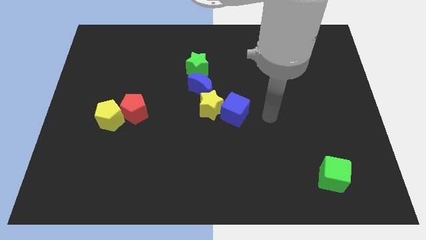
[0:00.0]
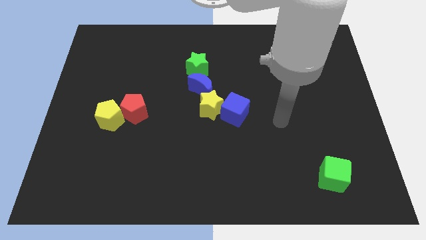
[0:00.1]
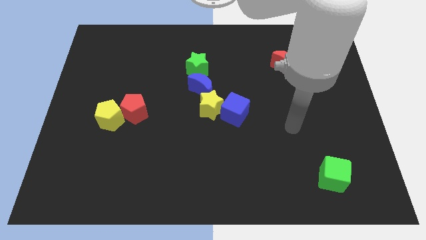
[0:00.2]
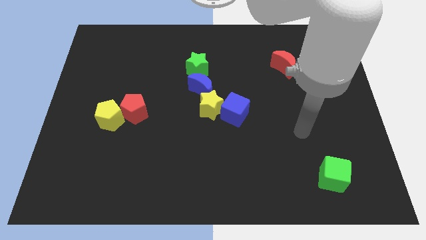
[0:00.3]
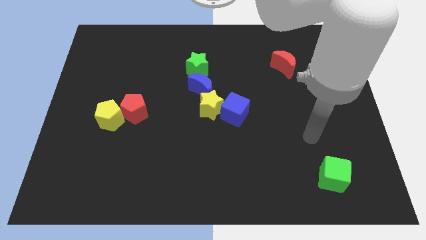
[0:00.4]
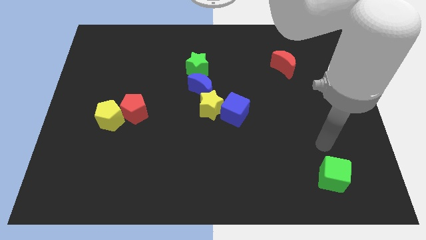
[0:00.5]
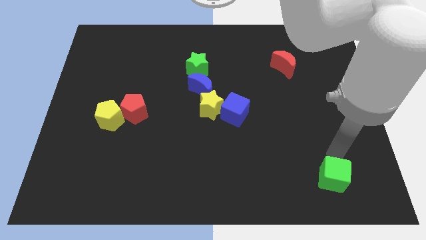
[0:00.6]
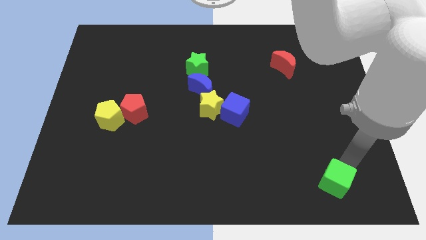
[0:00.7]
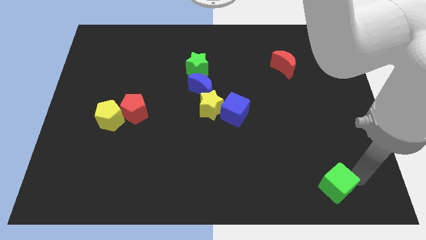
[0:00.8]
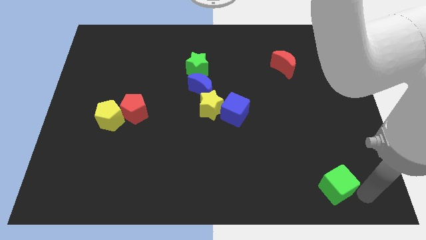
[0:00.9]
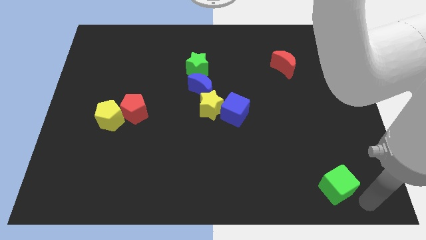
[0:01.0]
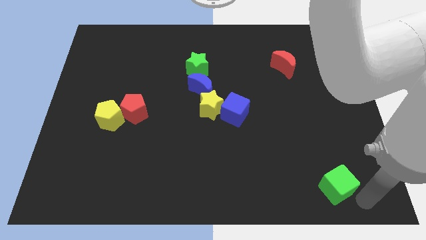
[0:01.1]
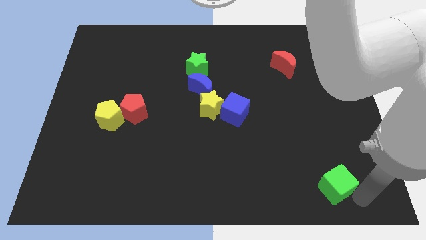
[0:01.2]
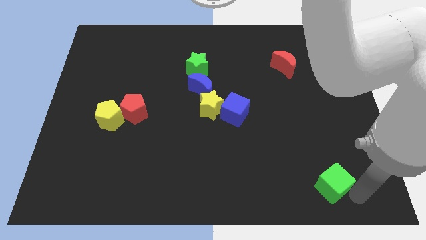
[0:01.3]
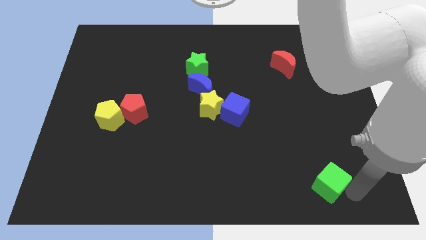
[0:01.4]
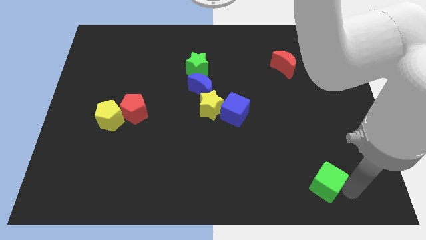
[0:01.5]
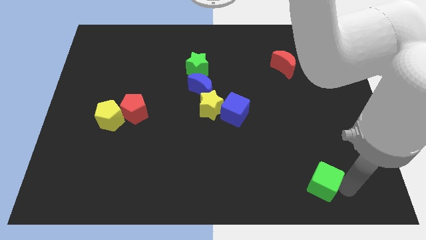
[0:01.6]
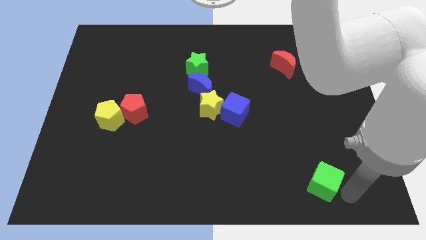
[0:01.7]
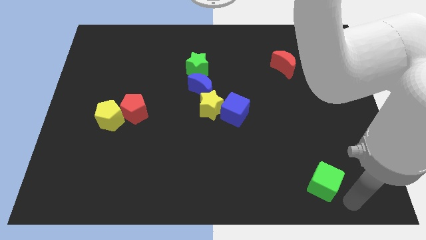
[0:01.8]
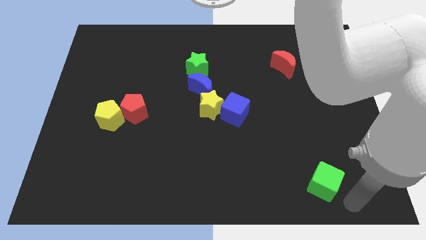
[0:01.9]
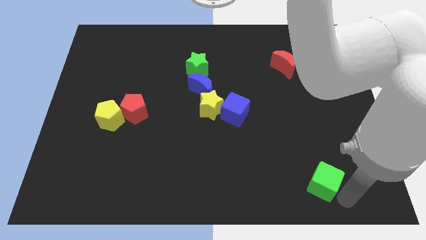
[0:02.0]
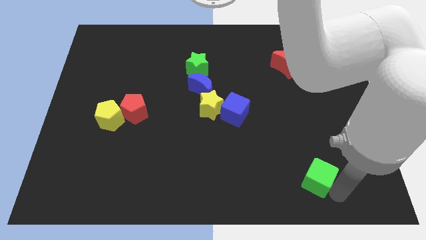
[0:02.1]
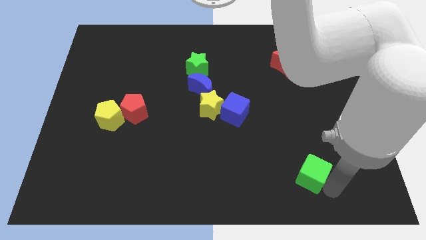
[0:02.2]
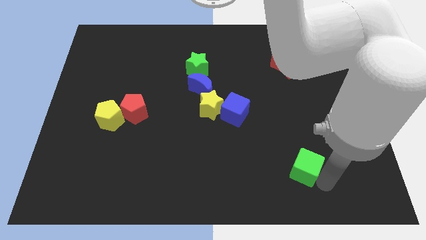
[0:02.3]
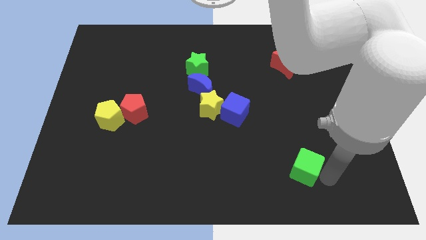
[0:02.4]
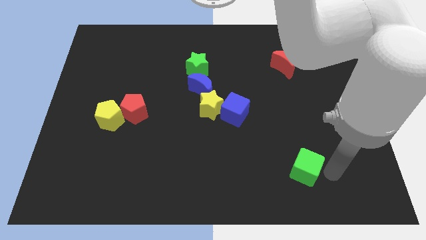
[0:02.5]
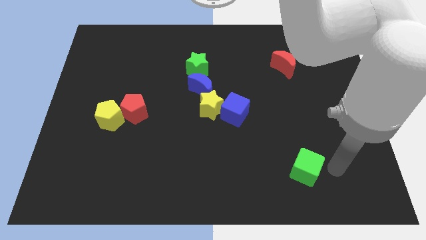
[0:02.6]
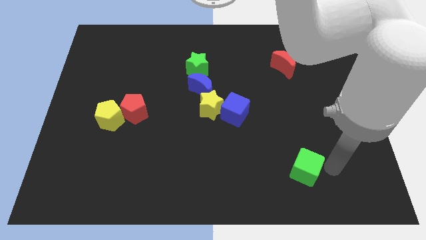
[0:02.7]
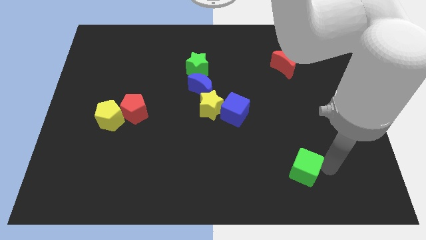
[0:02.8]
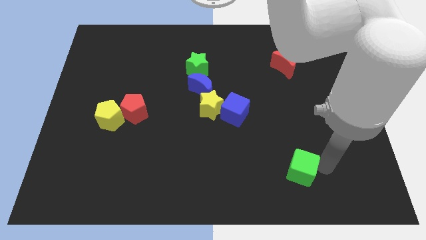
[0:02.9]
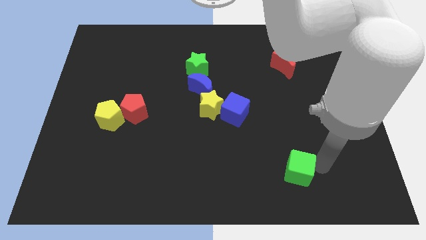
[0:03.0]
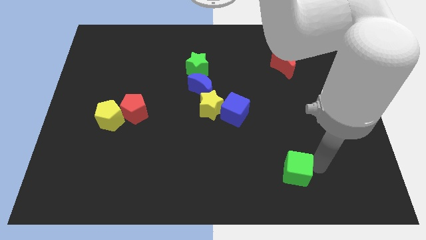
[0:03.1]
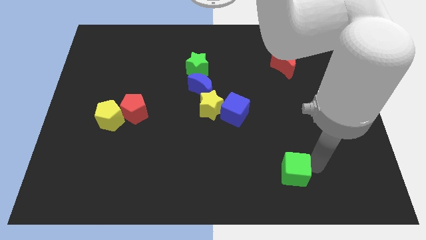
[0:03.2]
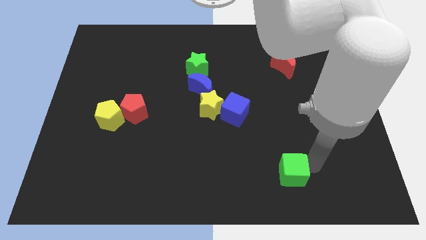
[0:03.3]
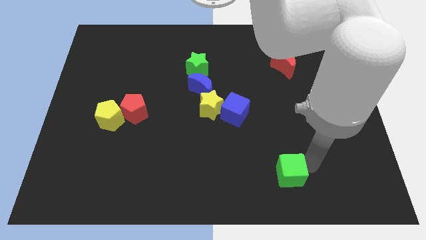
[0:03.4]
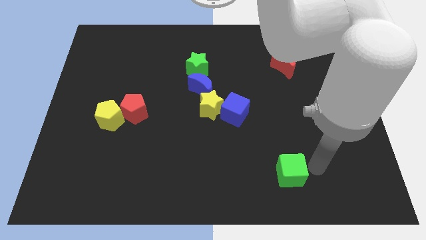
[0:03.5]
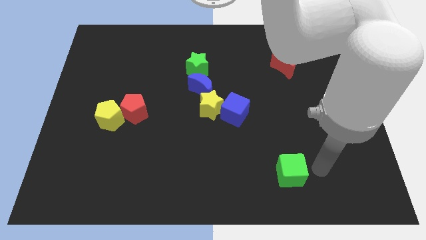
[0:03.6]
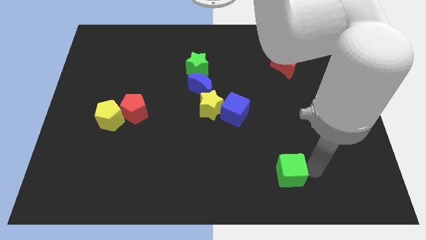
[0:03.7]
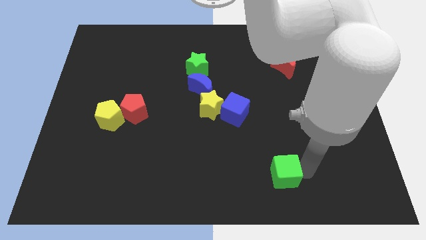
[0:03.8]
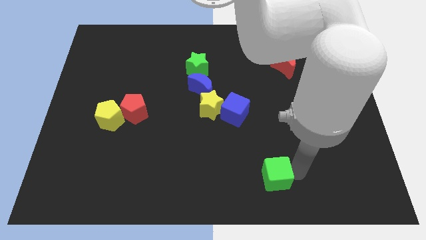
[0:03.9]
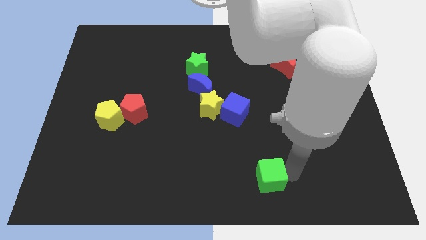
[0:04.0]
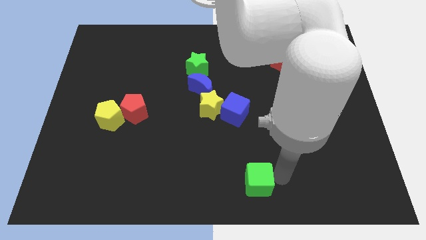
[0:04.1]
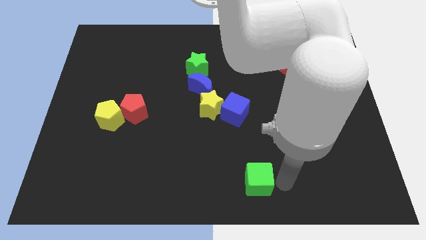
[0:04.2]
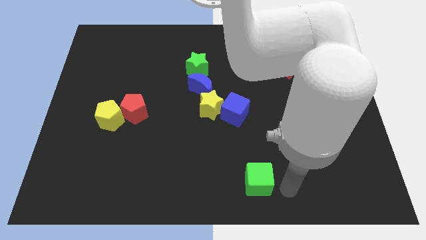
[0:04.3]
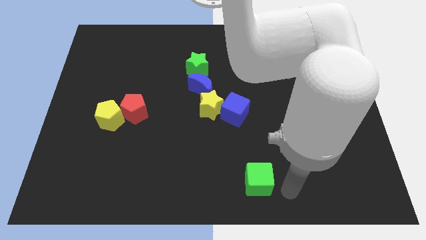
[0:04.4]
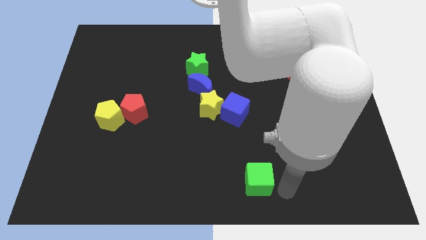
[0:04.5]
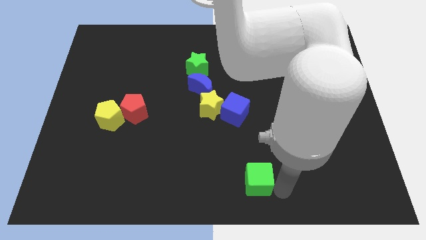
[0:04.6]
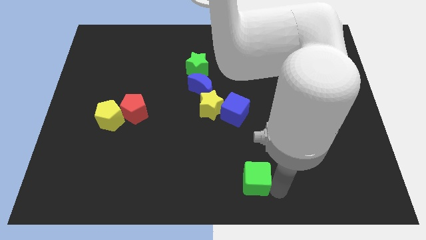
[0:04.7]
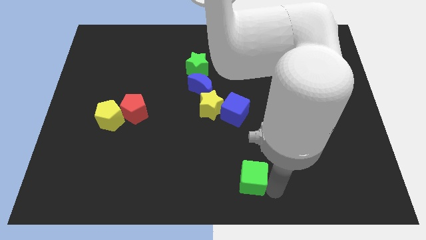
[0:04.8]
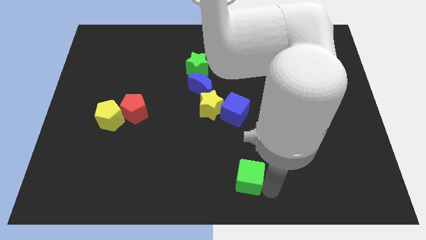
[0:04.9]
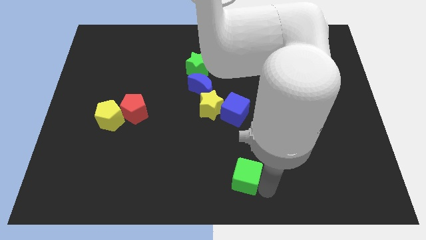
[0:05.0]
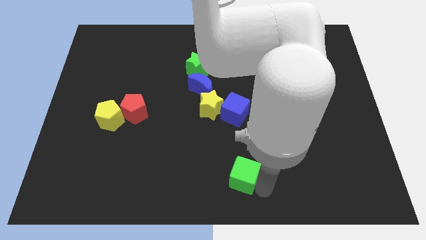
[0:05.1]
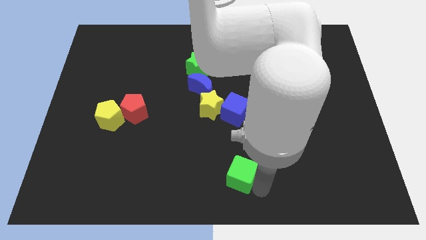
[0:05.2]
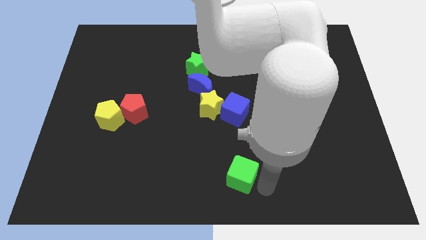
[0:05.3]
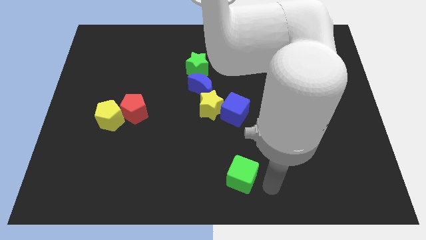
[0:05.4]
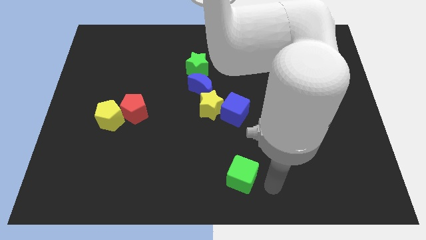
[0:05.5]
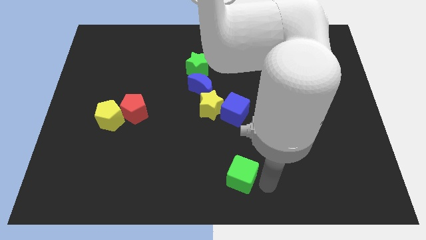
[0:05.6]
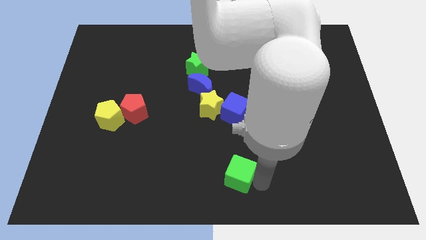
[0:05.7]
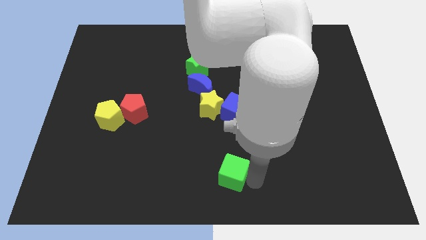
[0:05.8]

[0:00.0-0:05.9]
move the green cube left

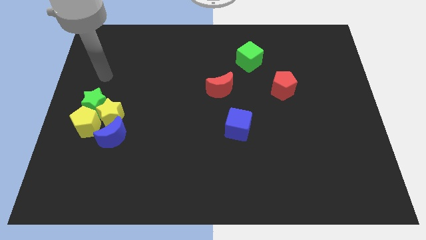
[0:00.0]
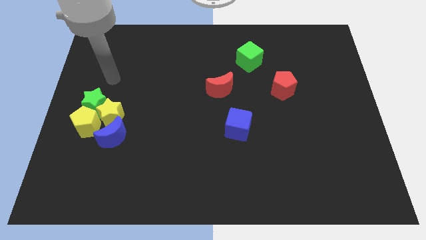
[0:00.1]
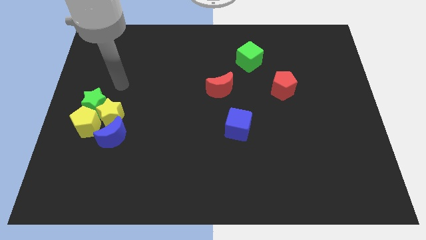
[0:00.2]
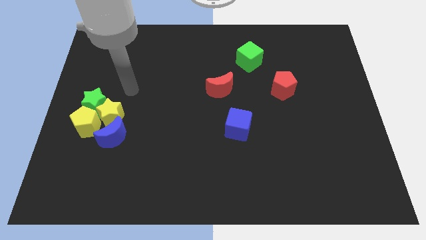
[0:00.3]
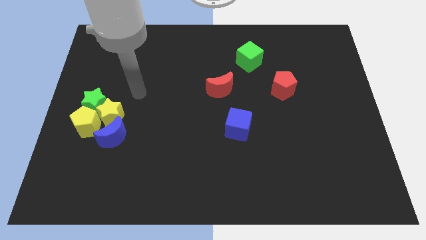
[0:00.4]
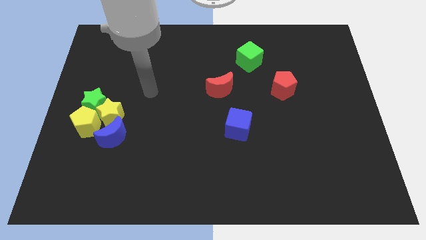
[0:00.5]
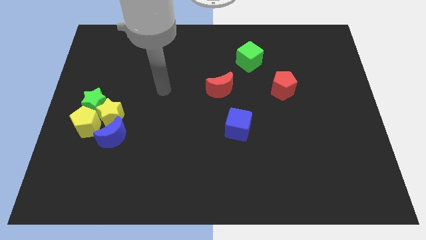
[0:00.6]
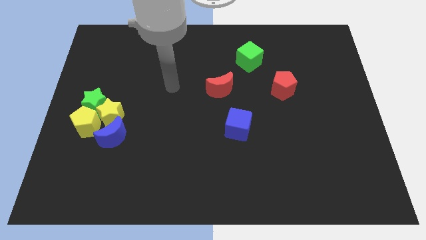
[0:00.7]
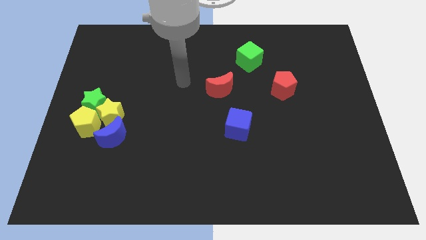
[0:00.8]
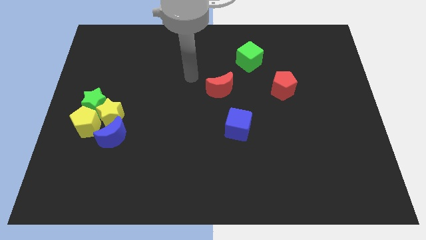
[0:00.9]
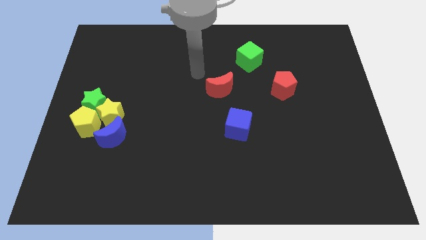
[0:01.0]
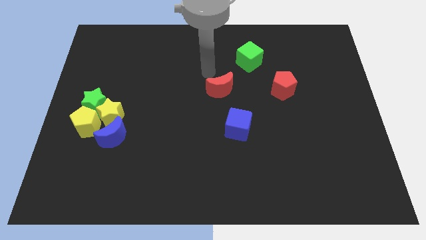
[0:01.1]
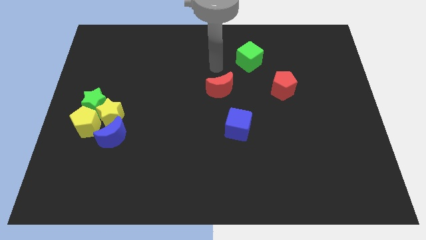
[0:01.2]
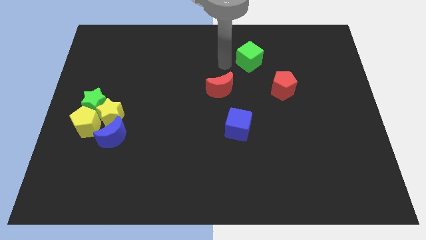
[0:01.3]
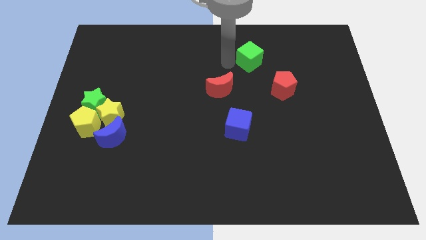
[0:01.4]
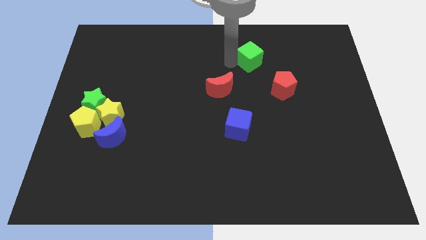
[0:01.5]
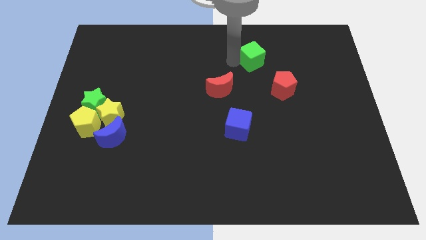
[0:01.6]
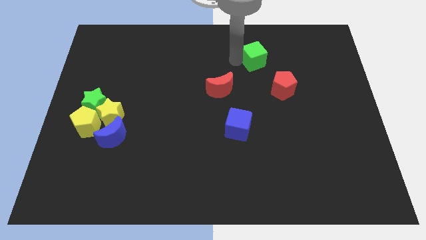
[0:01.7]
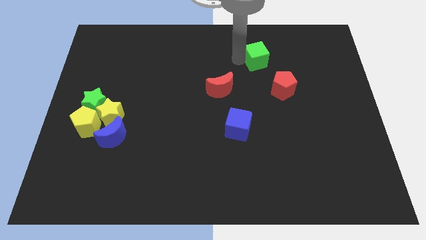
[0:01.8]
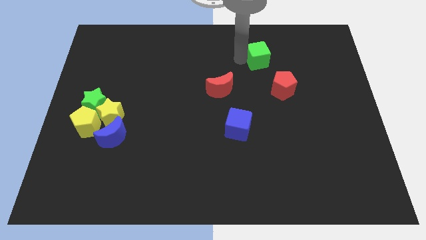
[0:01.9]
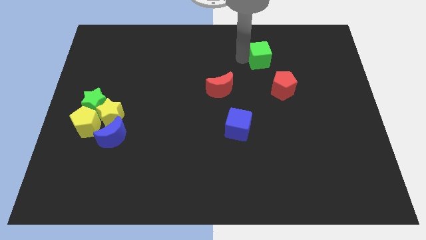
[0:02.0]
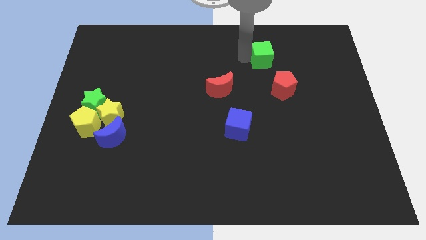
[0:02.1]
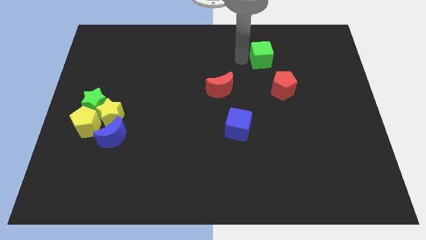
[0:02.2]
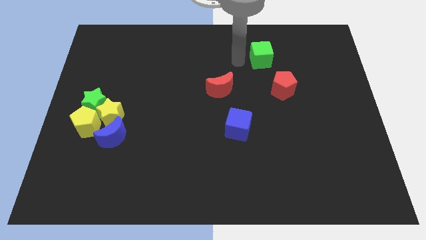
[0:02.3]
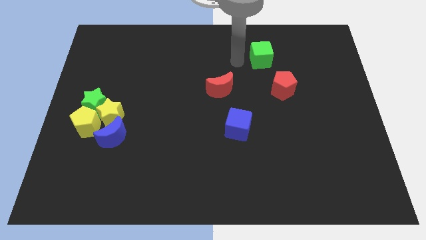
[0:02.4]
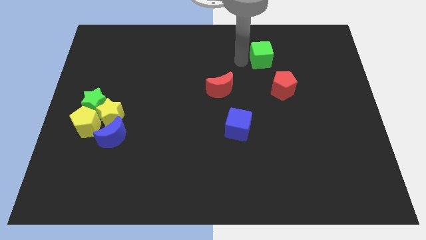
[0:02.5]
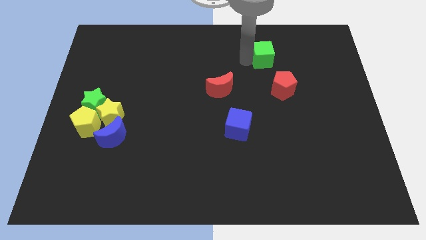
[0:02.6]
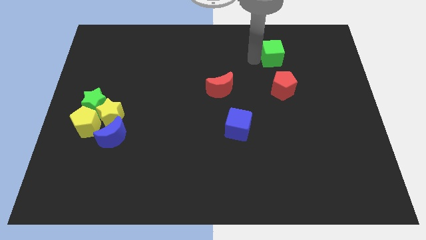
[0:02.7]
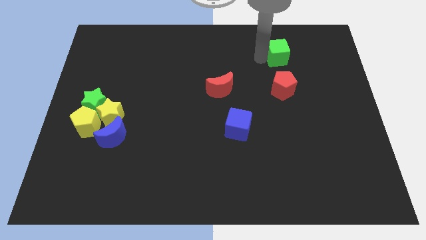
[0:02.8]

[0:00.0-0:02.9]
slide the green cube a little bit right
